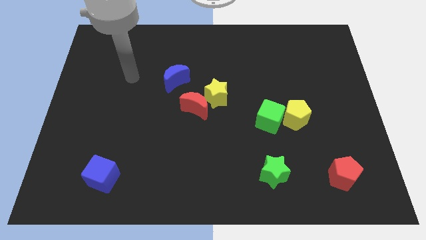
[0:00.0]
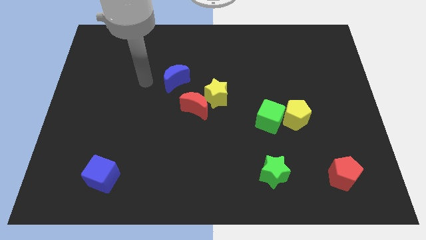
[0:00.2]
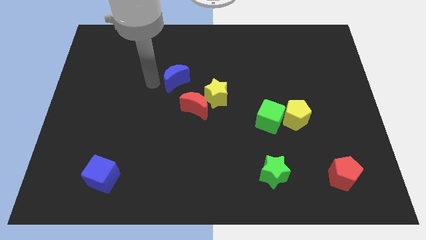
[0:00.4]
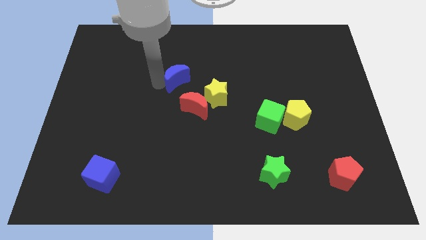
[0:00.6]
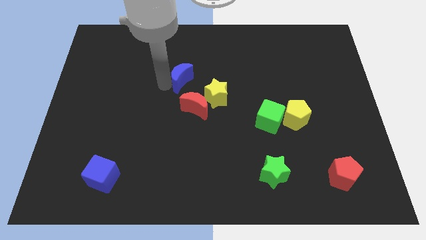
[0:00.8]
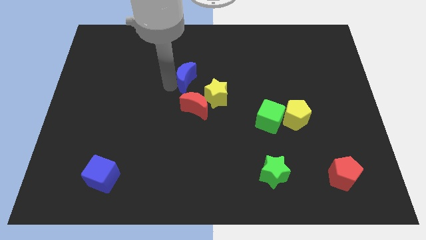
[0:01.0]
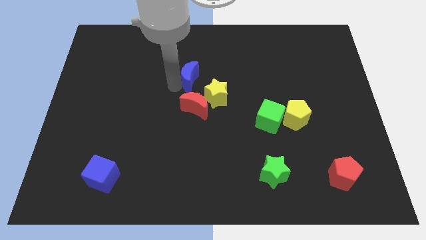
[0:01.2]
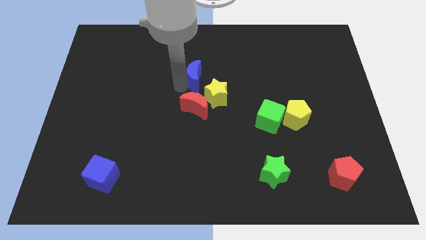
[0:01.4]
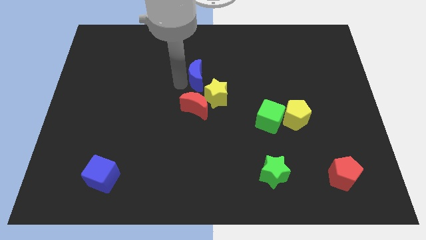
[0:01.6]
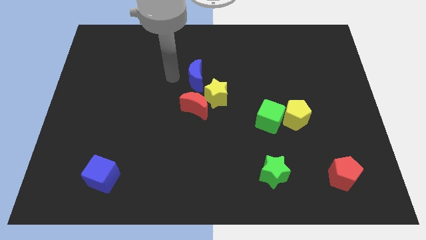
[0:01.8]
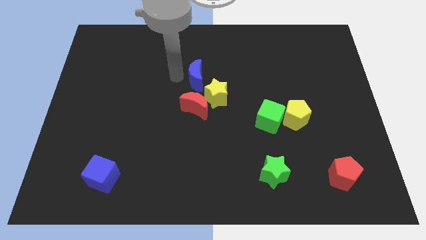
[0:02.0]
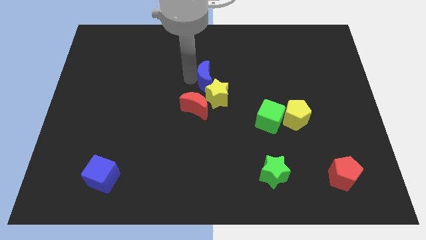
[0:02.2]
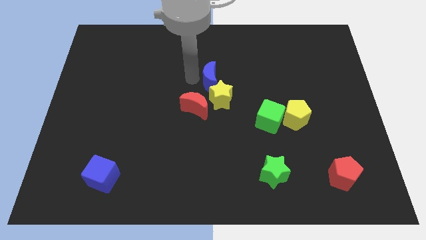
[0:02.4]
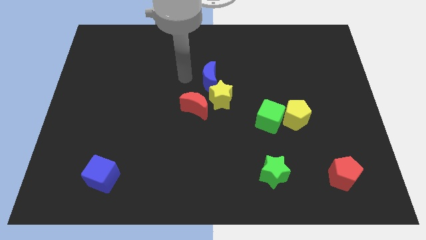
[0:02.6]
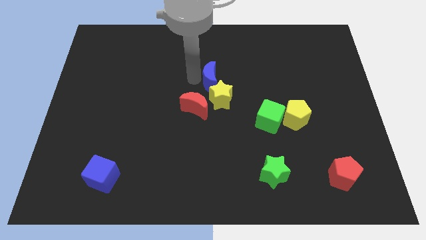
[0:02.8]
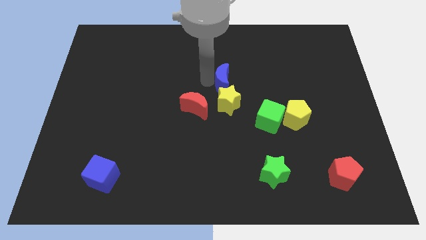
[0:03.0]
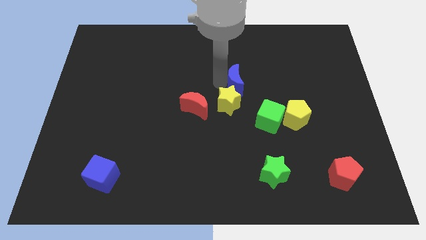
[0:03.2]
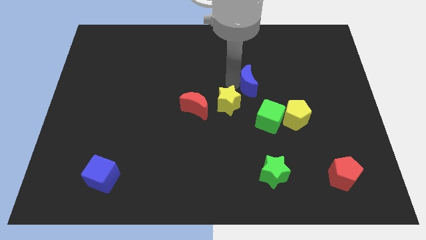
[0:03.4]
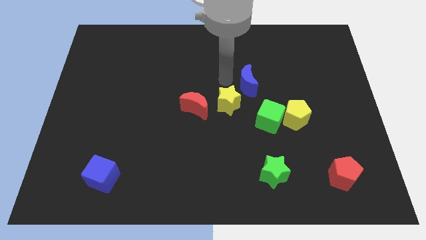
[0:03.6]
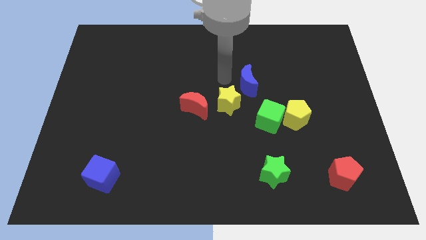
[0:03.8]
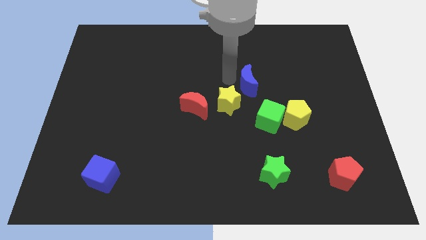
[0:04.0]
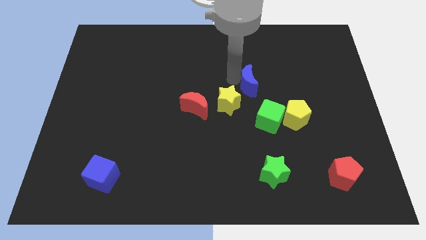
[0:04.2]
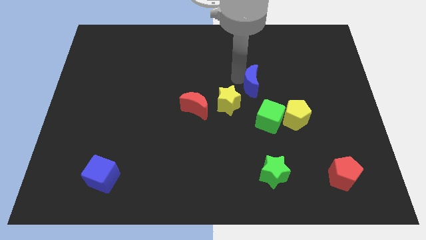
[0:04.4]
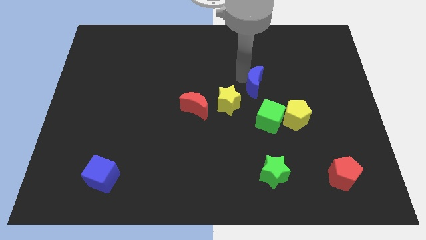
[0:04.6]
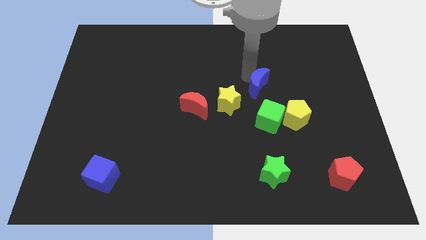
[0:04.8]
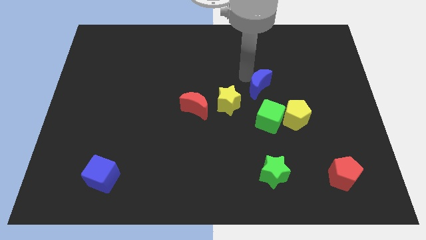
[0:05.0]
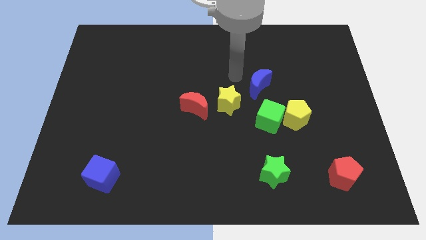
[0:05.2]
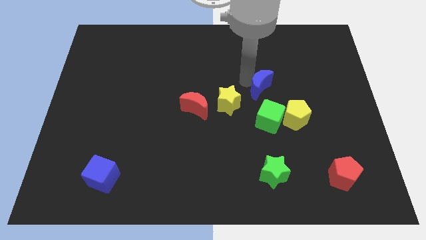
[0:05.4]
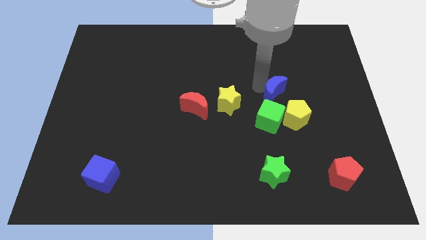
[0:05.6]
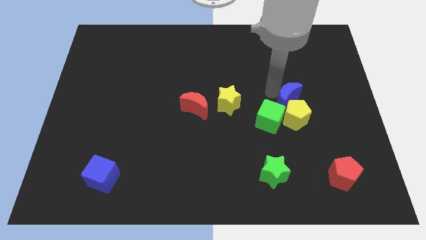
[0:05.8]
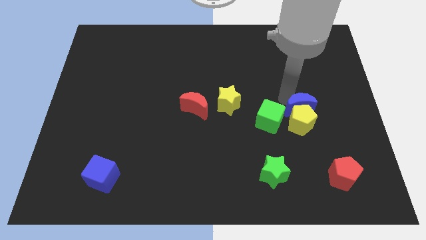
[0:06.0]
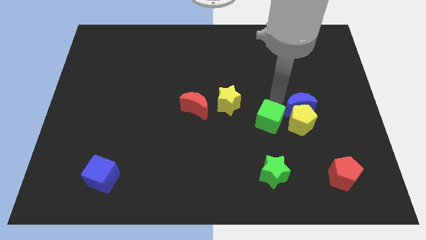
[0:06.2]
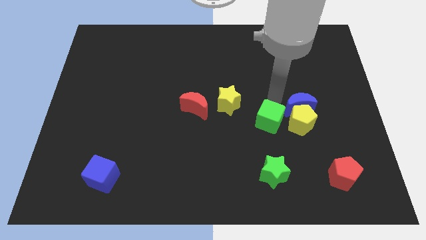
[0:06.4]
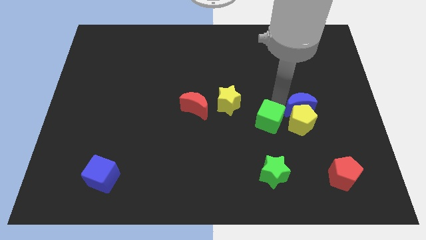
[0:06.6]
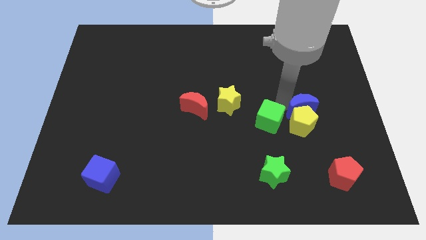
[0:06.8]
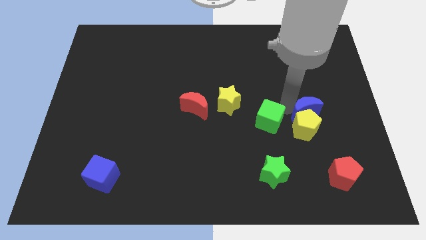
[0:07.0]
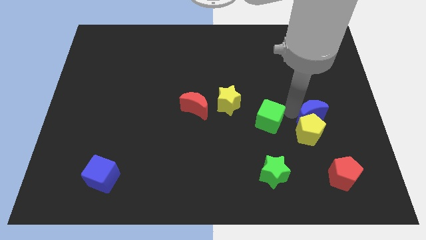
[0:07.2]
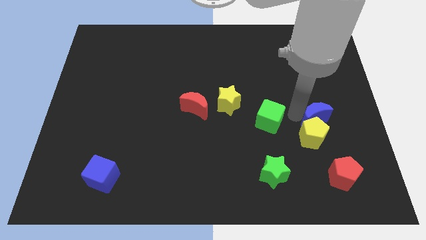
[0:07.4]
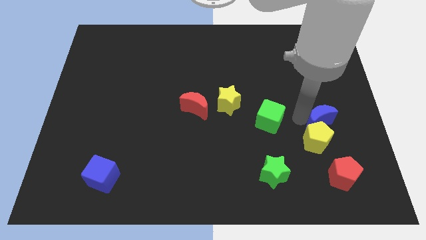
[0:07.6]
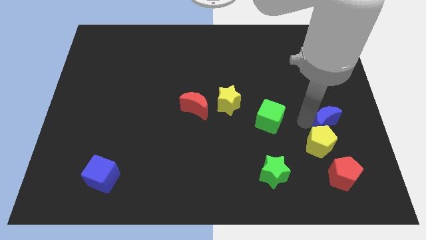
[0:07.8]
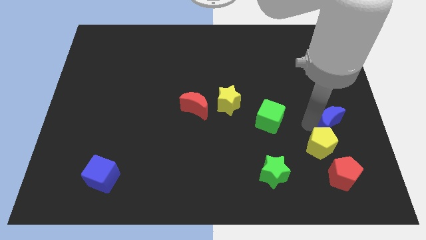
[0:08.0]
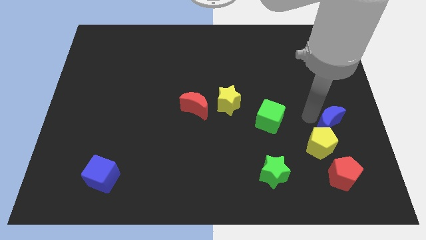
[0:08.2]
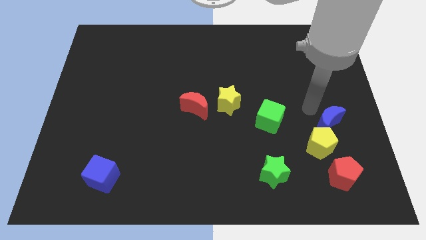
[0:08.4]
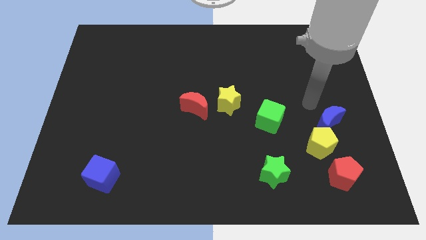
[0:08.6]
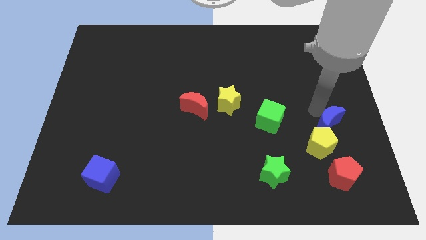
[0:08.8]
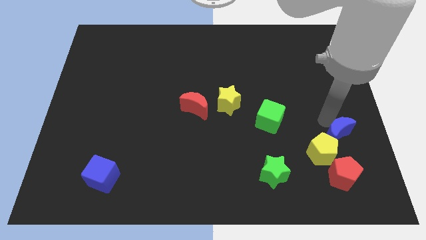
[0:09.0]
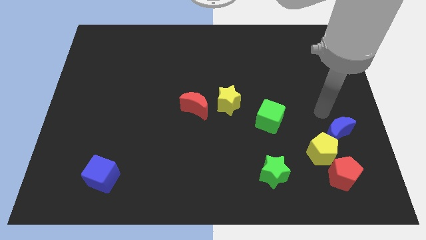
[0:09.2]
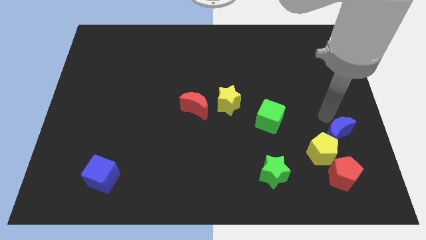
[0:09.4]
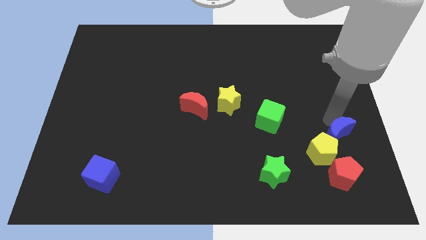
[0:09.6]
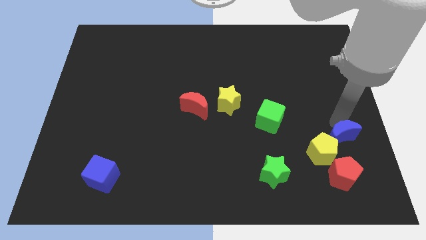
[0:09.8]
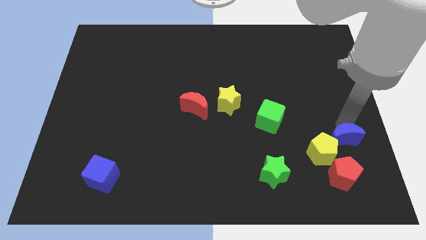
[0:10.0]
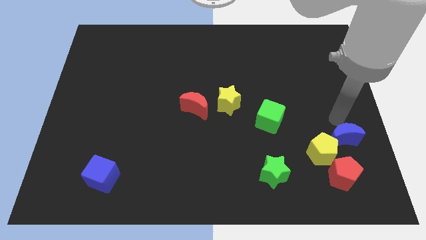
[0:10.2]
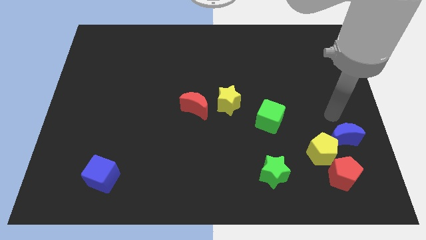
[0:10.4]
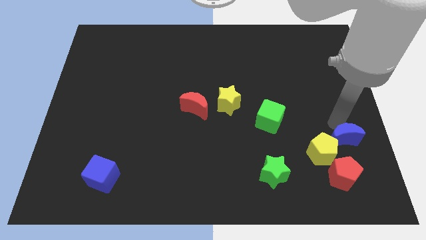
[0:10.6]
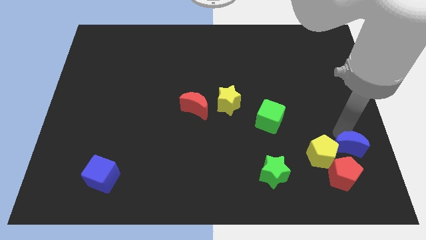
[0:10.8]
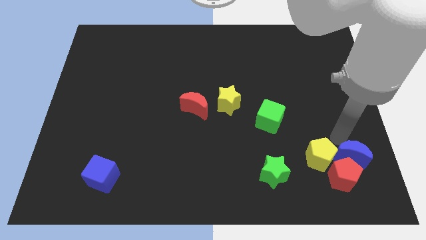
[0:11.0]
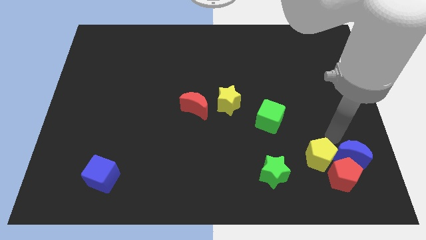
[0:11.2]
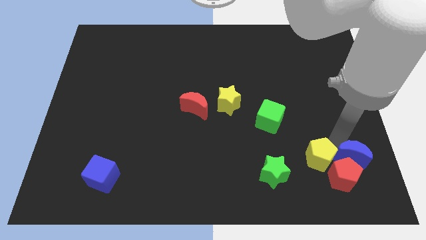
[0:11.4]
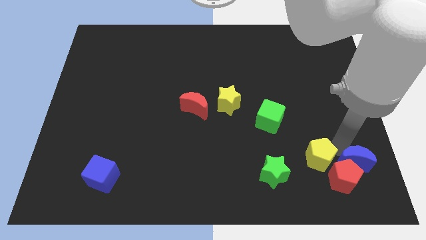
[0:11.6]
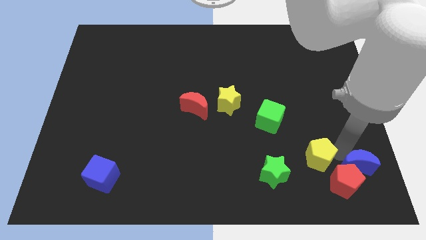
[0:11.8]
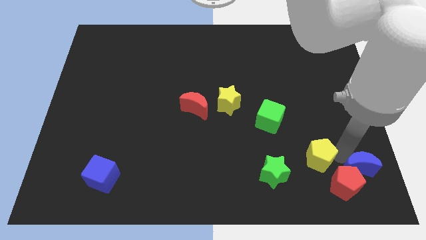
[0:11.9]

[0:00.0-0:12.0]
slide the blue moon to the bottom right
